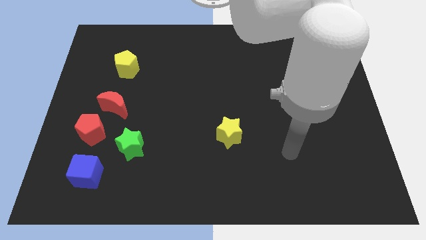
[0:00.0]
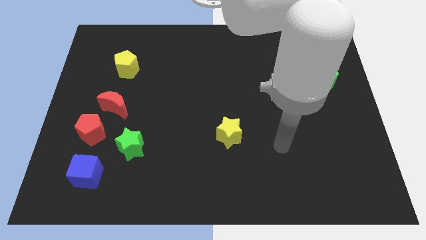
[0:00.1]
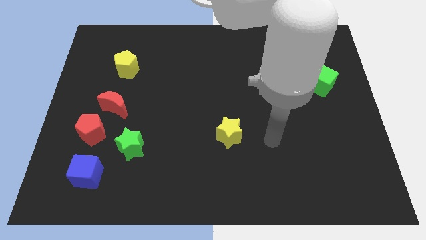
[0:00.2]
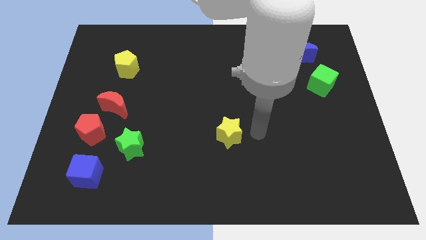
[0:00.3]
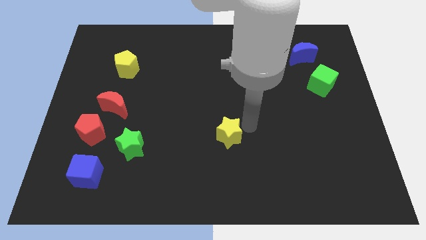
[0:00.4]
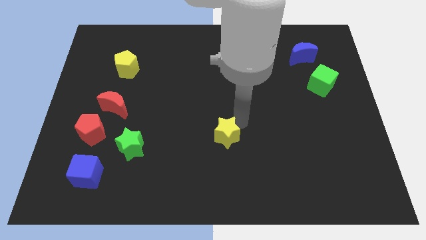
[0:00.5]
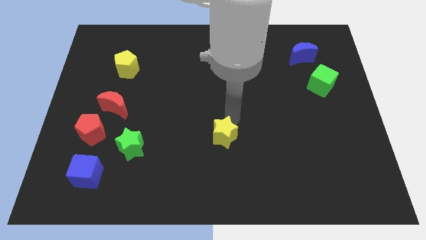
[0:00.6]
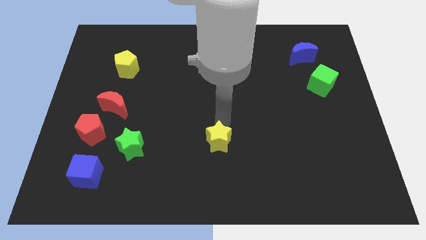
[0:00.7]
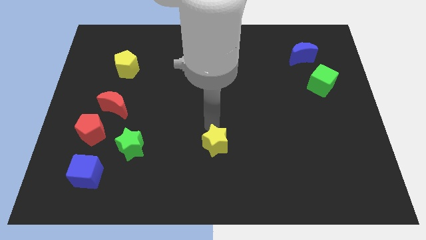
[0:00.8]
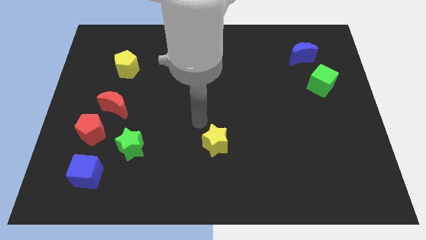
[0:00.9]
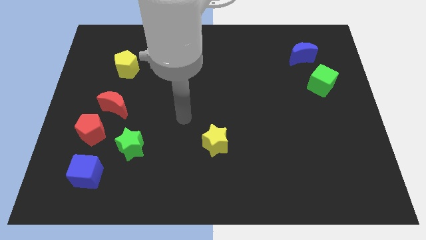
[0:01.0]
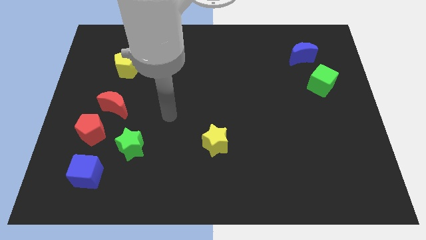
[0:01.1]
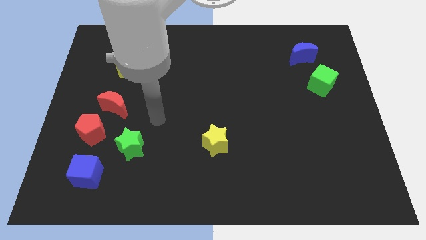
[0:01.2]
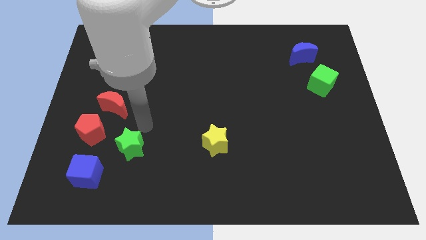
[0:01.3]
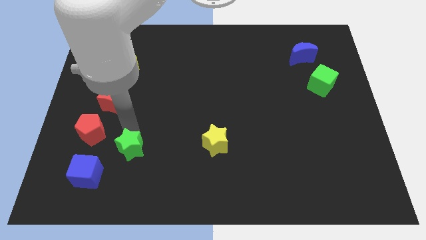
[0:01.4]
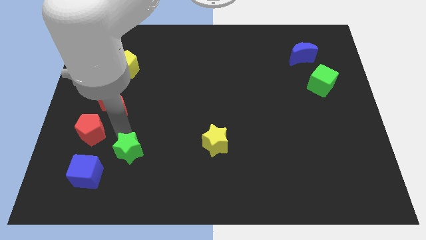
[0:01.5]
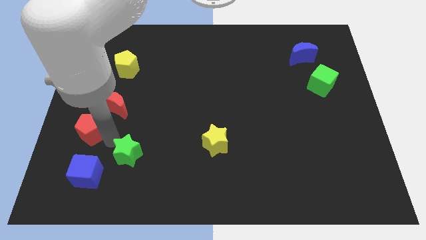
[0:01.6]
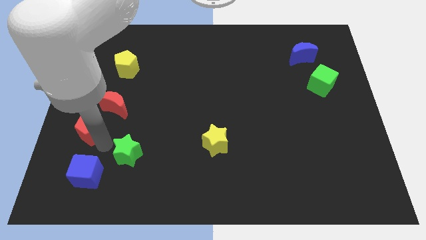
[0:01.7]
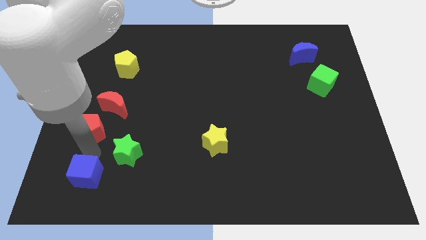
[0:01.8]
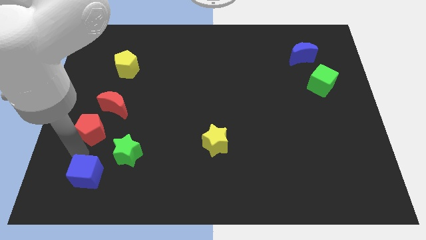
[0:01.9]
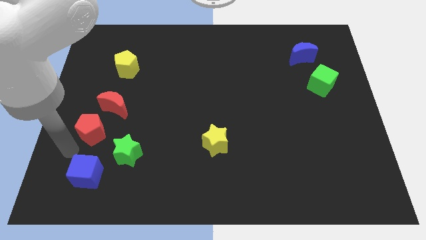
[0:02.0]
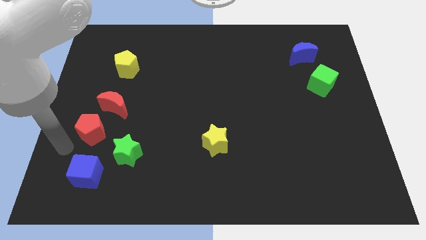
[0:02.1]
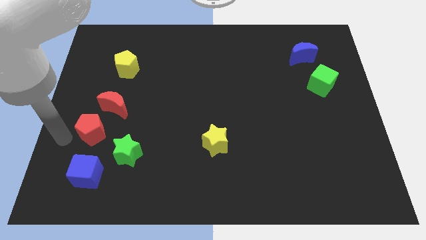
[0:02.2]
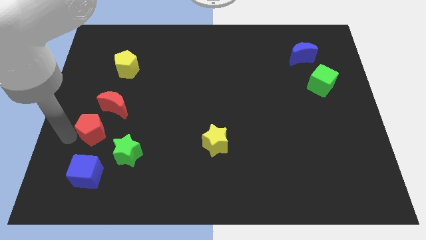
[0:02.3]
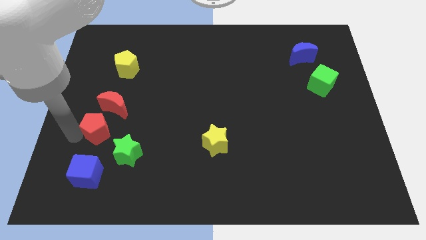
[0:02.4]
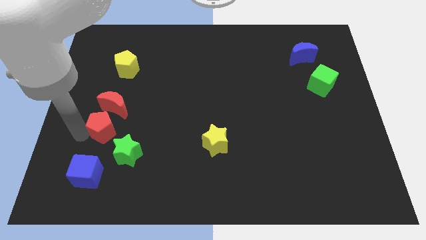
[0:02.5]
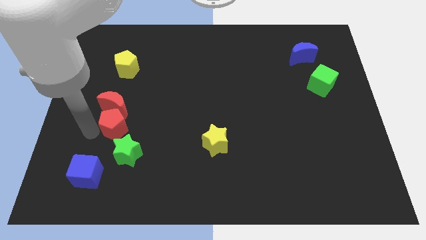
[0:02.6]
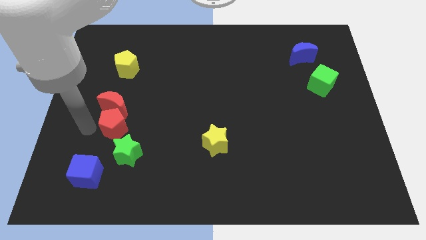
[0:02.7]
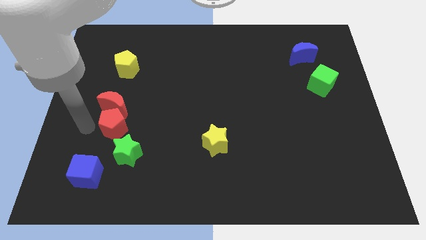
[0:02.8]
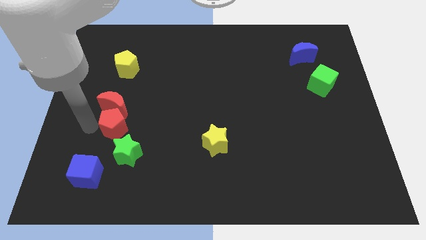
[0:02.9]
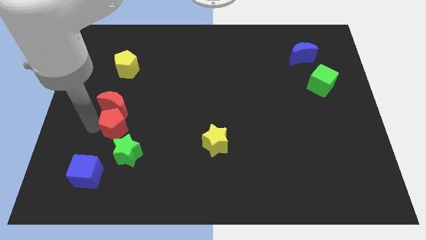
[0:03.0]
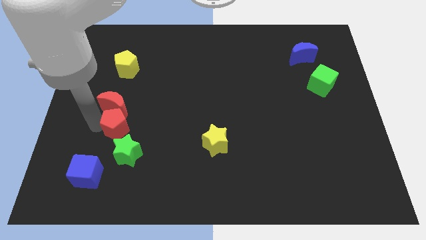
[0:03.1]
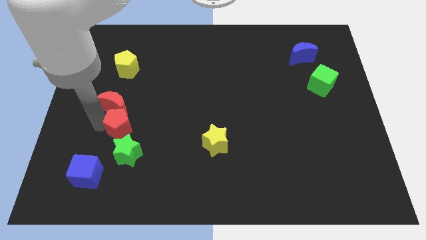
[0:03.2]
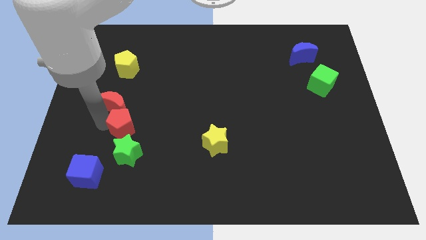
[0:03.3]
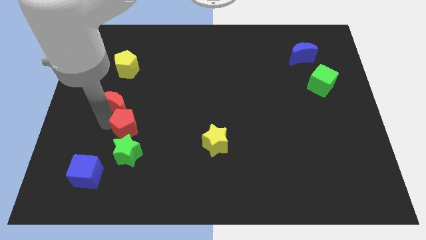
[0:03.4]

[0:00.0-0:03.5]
push the red pentagon right somewhat

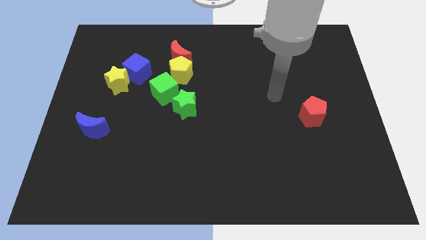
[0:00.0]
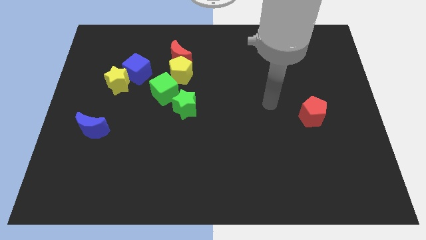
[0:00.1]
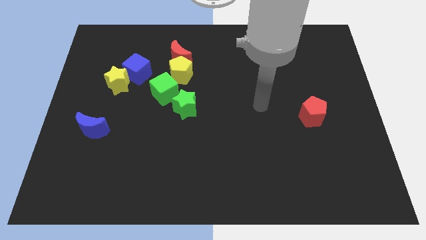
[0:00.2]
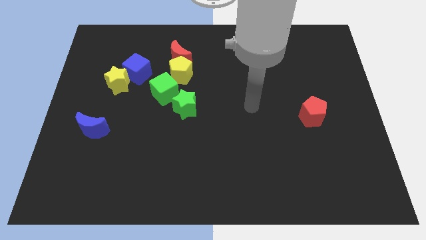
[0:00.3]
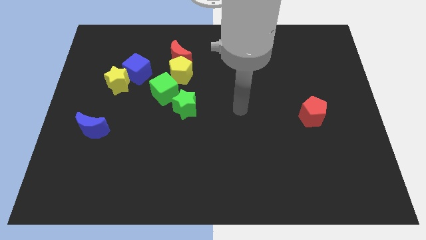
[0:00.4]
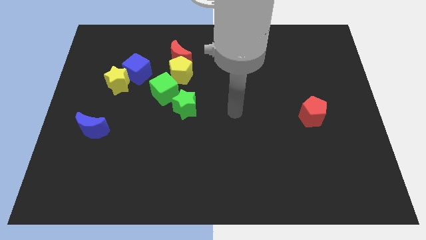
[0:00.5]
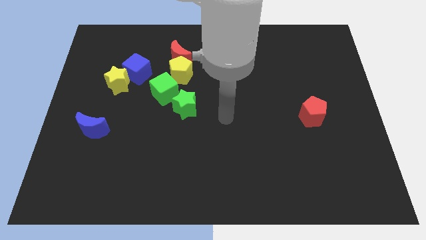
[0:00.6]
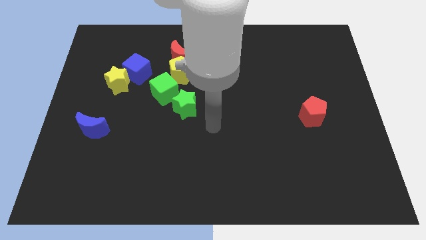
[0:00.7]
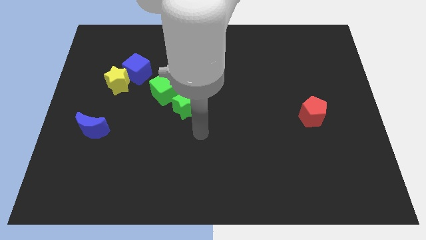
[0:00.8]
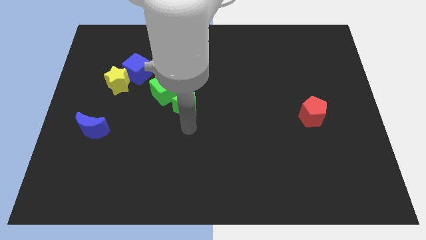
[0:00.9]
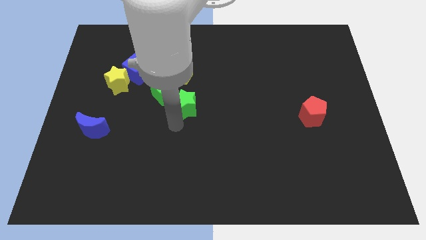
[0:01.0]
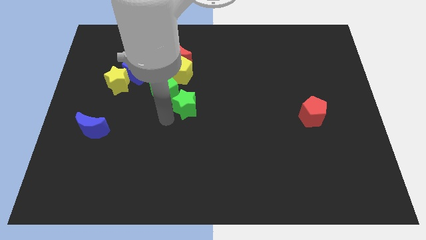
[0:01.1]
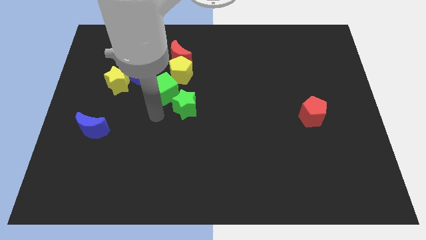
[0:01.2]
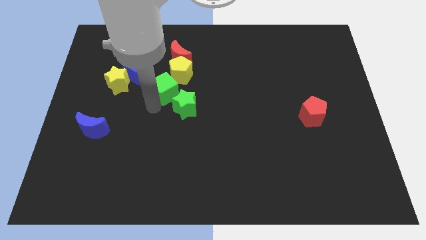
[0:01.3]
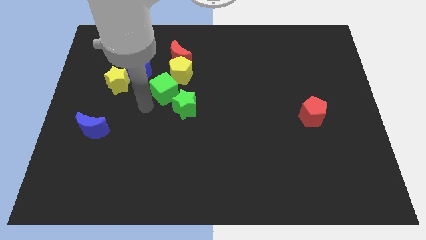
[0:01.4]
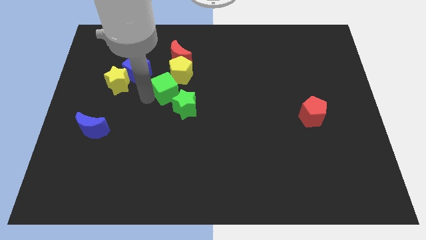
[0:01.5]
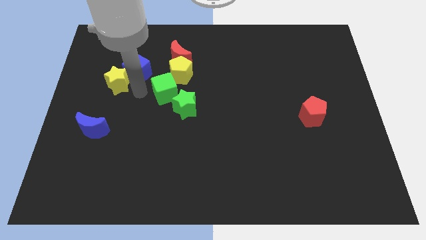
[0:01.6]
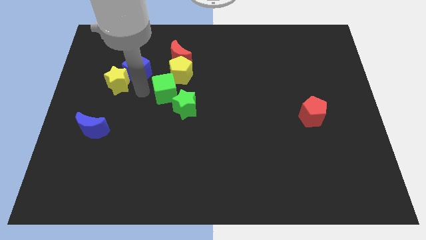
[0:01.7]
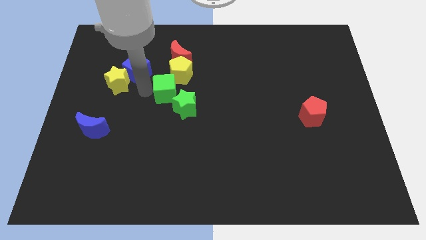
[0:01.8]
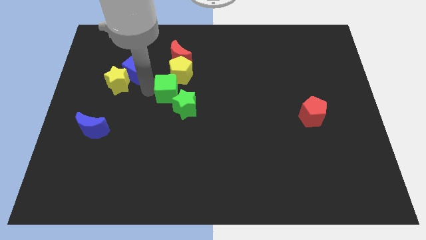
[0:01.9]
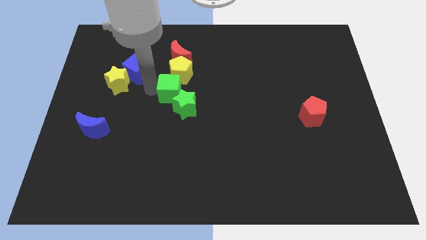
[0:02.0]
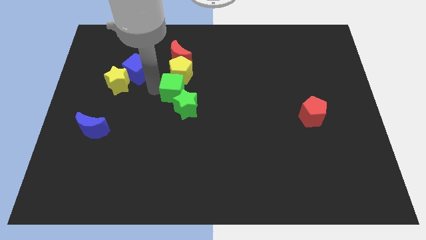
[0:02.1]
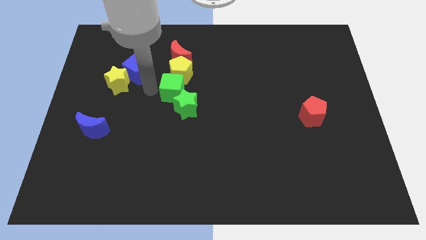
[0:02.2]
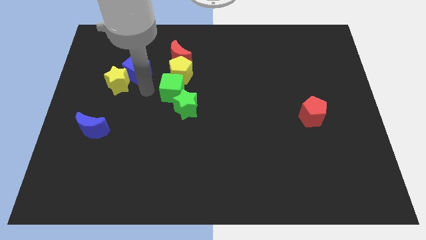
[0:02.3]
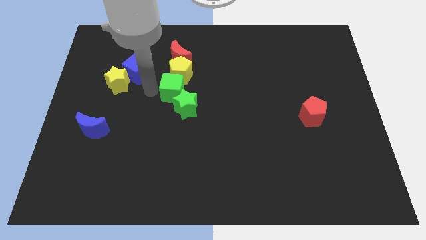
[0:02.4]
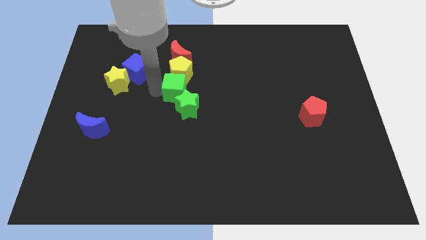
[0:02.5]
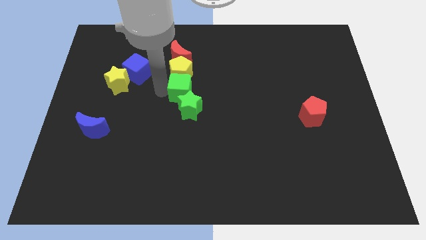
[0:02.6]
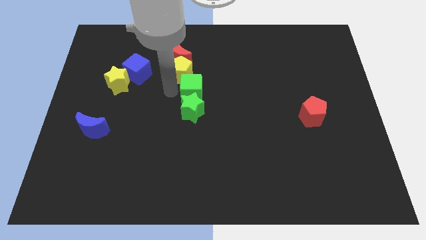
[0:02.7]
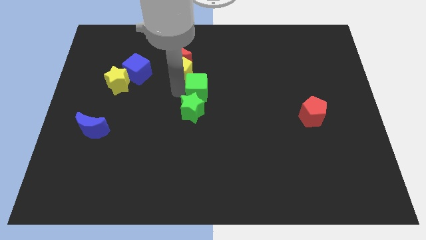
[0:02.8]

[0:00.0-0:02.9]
move the green cube slightly right

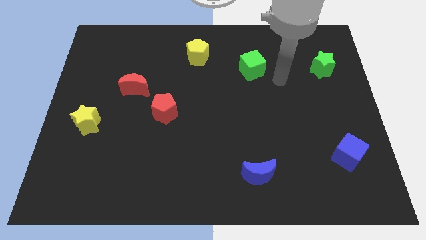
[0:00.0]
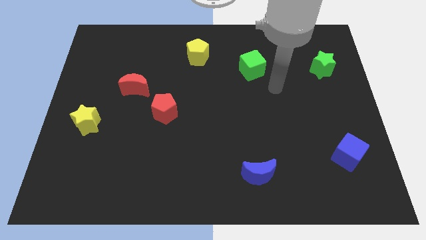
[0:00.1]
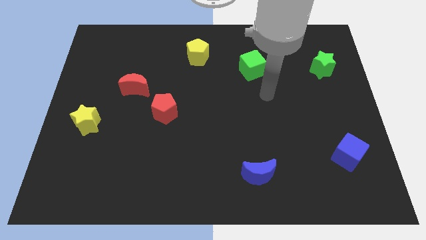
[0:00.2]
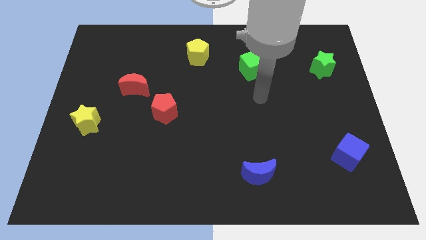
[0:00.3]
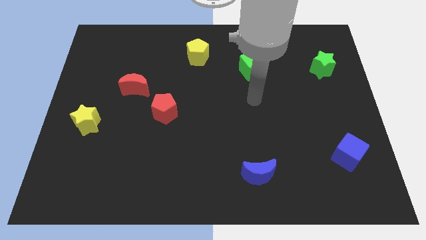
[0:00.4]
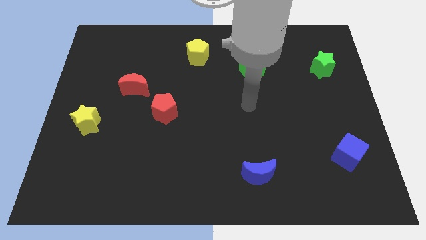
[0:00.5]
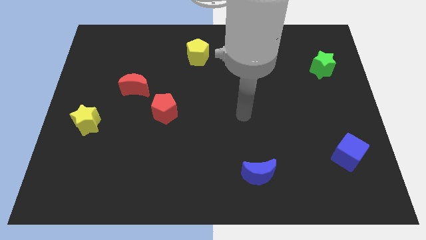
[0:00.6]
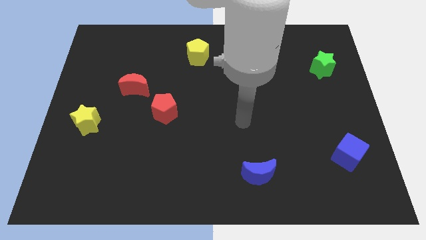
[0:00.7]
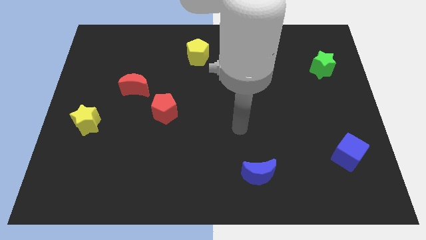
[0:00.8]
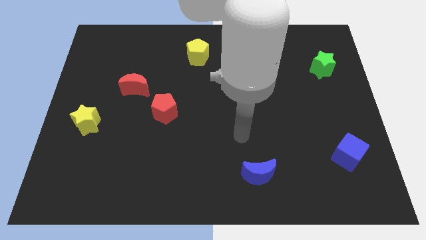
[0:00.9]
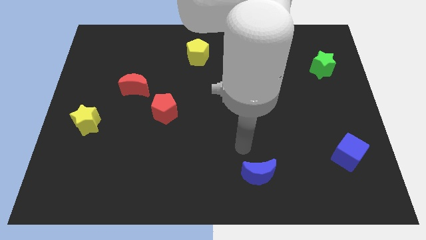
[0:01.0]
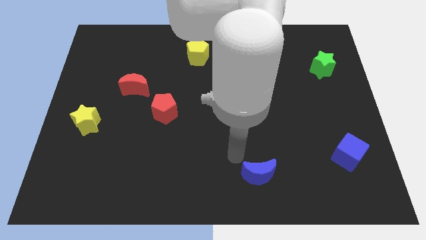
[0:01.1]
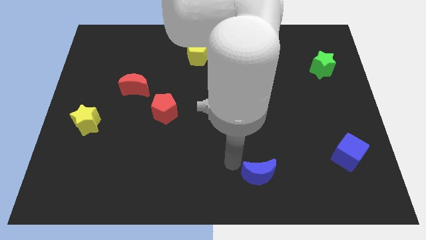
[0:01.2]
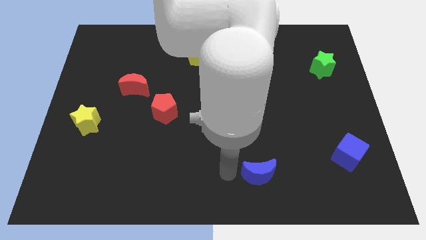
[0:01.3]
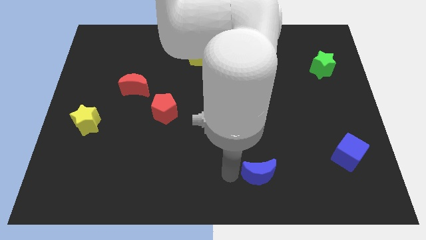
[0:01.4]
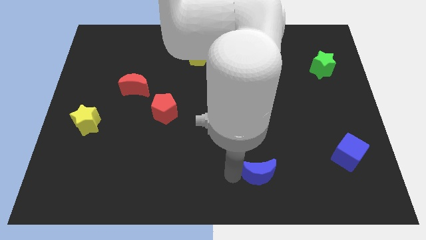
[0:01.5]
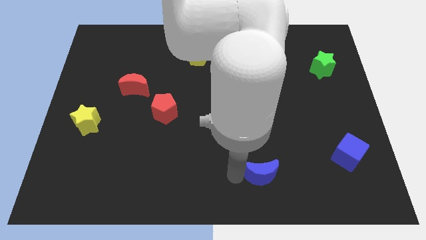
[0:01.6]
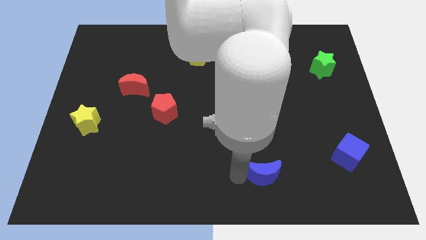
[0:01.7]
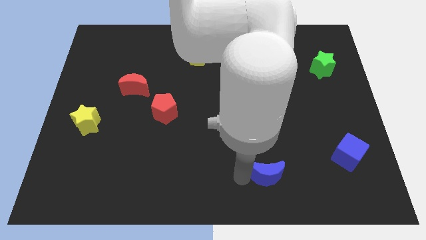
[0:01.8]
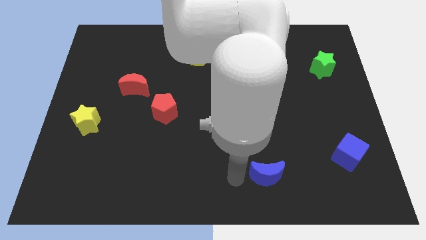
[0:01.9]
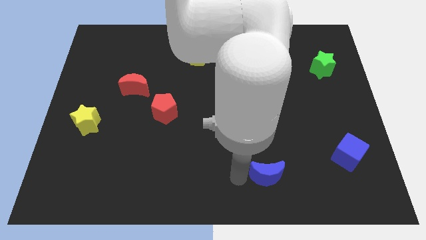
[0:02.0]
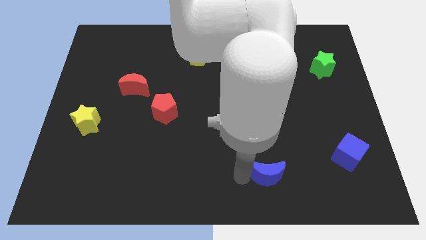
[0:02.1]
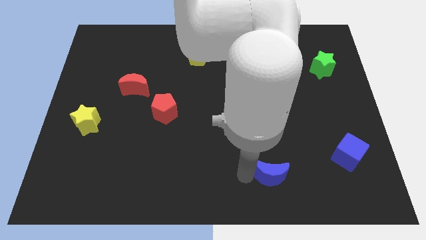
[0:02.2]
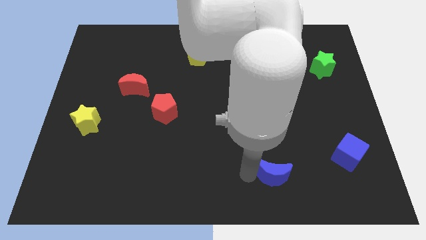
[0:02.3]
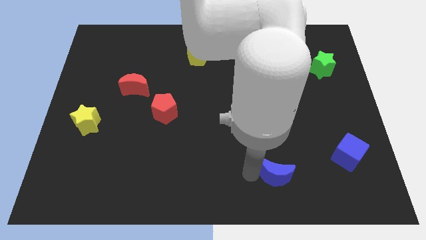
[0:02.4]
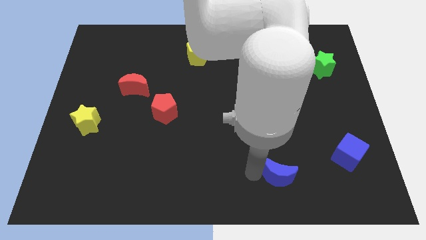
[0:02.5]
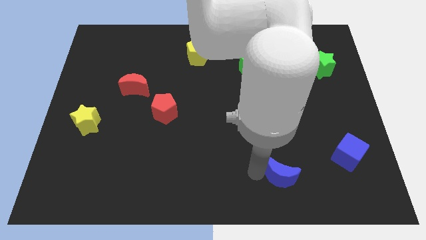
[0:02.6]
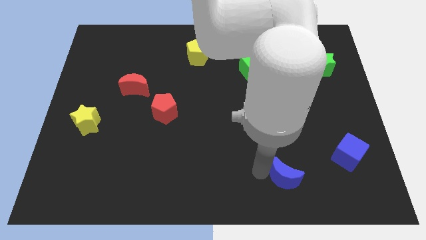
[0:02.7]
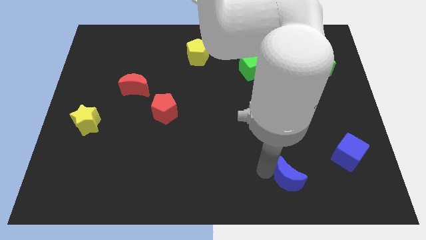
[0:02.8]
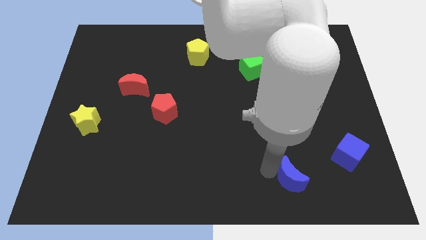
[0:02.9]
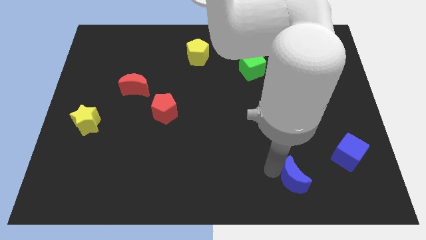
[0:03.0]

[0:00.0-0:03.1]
push the blue moon somewhat right
